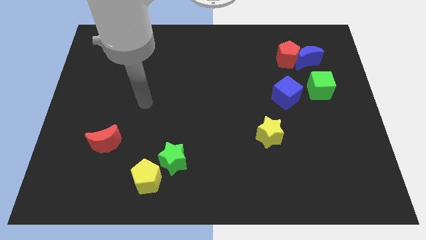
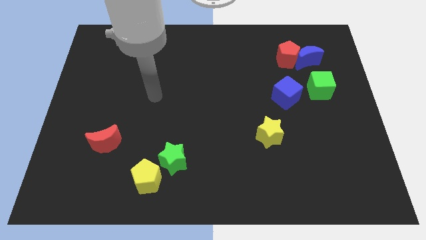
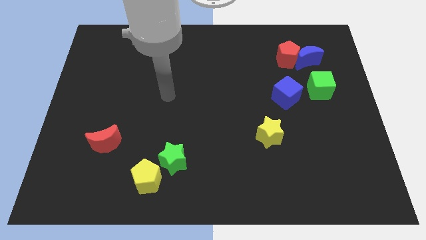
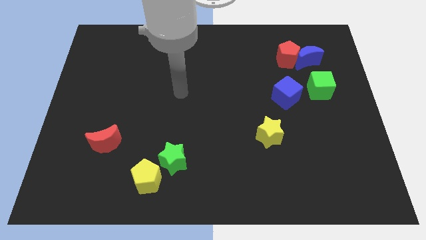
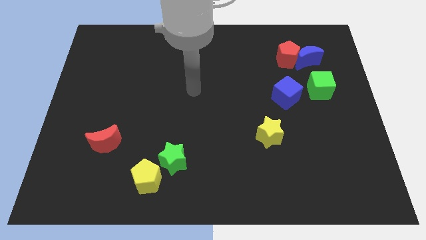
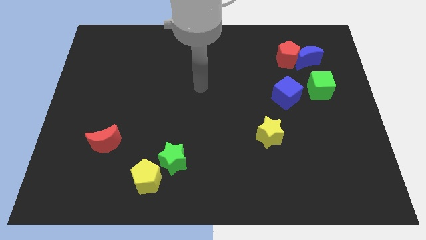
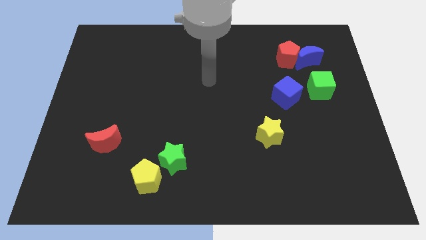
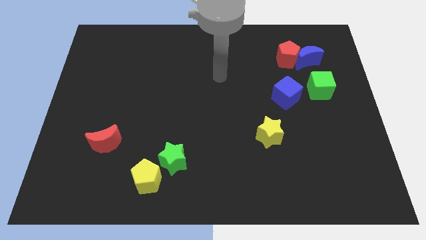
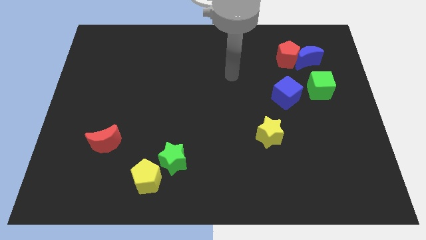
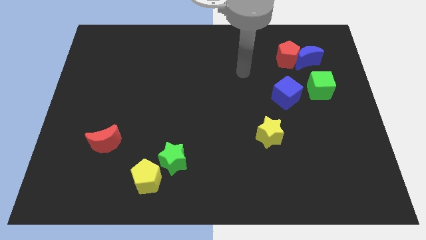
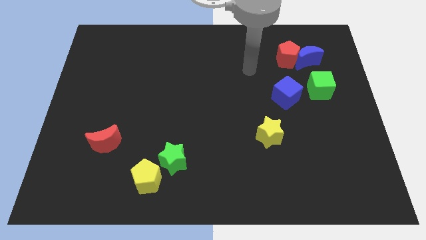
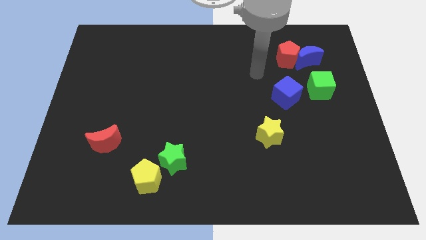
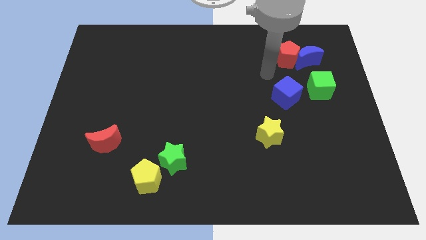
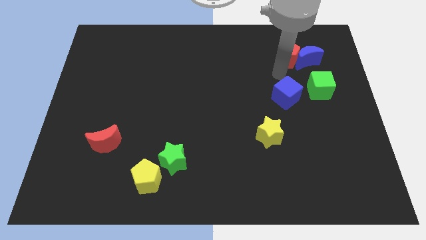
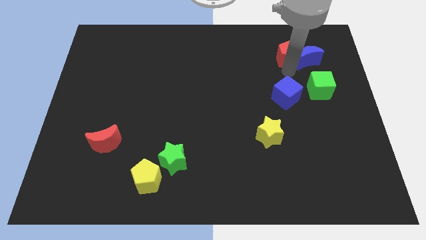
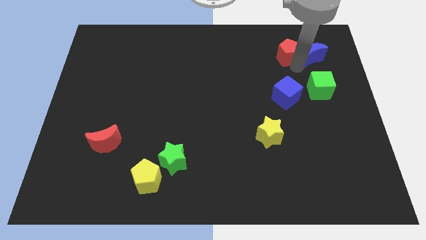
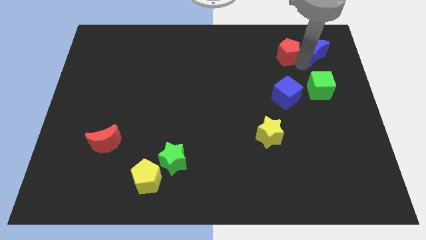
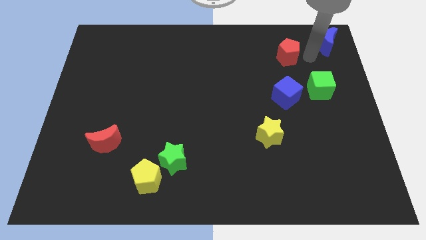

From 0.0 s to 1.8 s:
pull the red pentagon apart from the blue moon

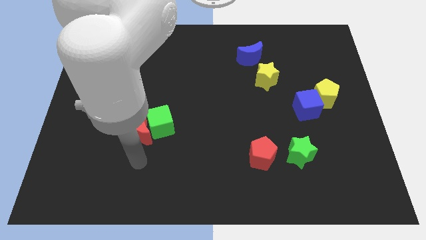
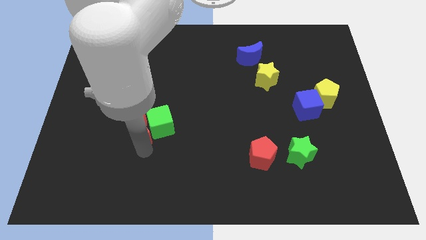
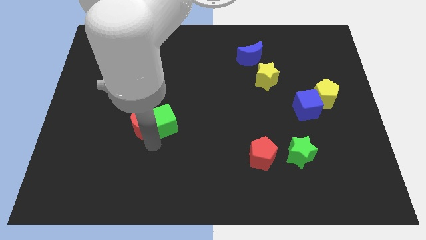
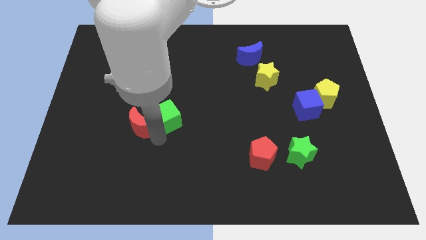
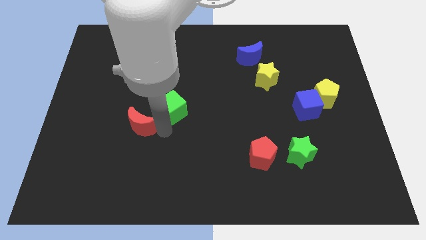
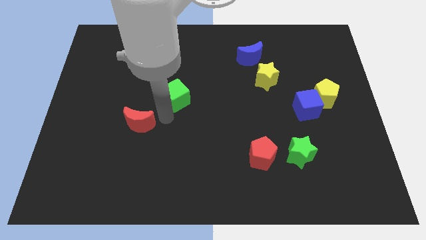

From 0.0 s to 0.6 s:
separate the red moon from the green cube

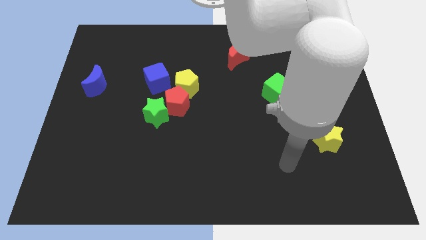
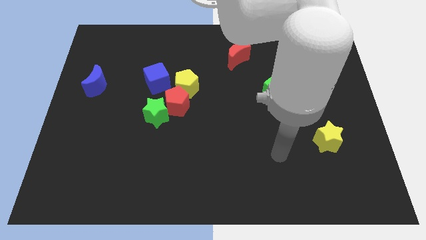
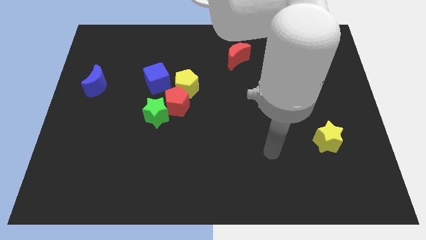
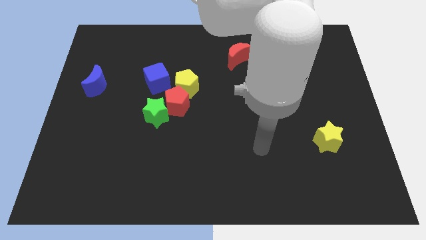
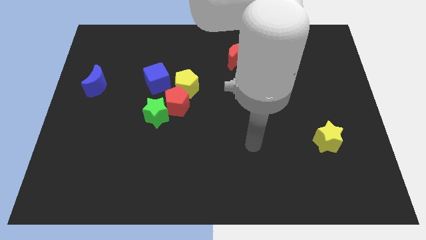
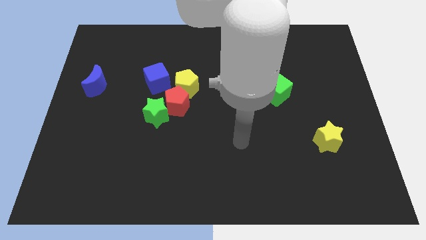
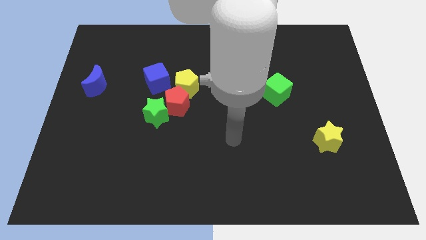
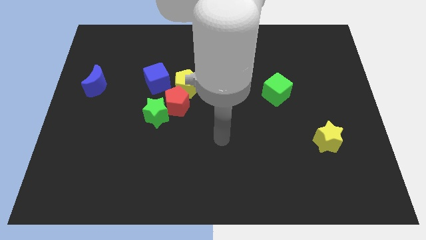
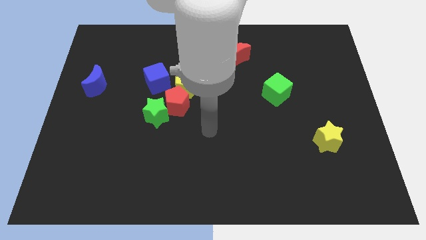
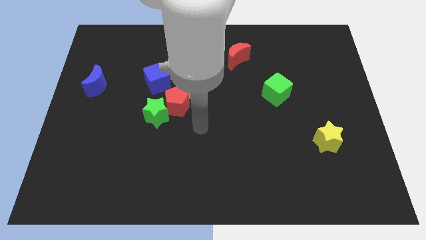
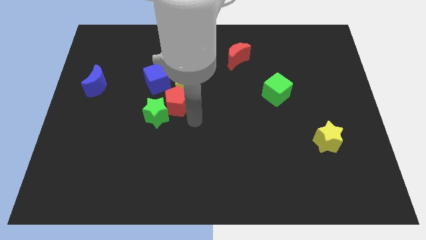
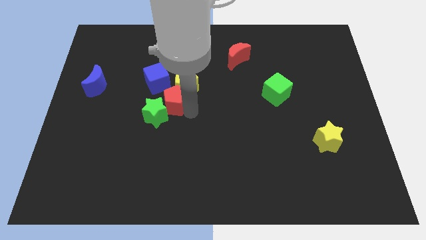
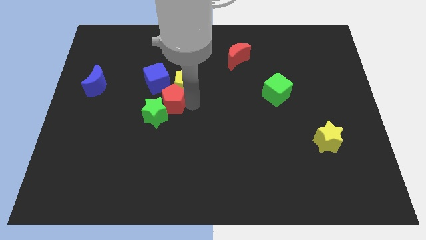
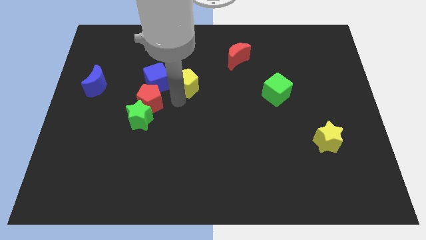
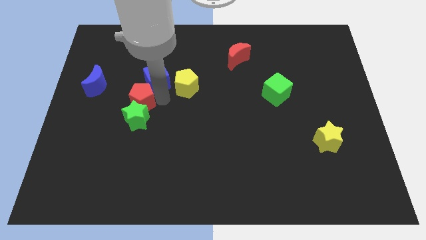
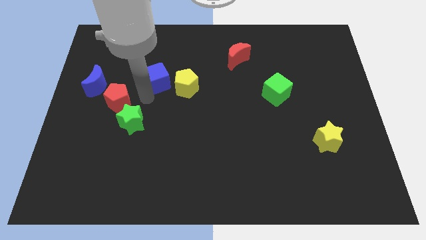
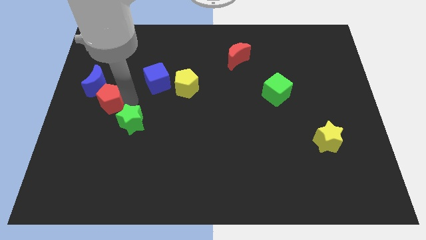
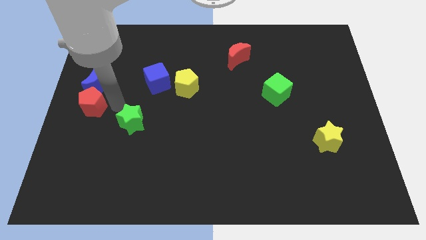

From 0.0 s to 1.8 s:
pull the green star apart from the red pentagon

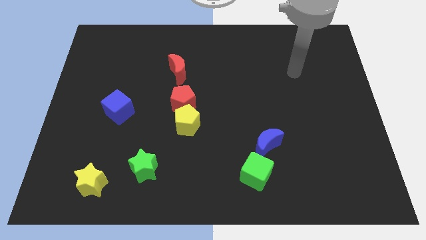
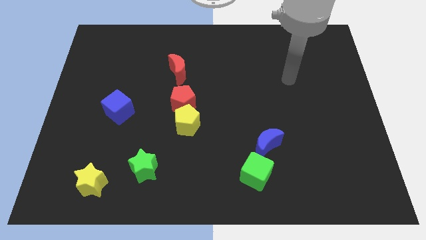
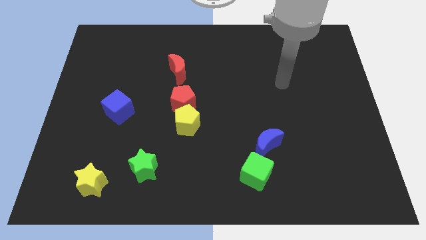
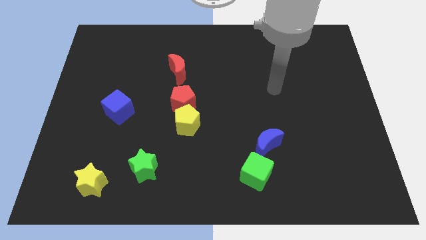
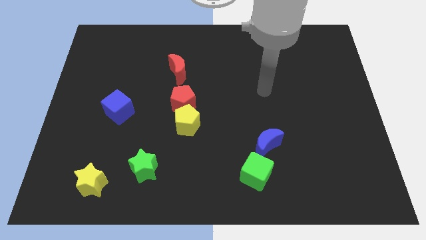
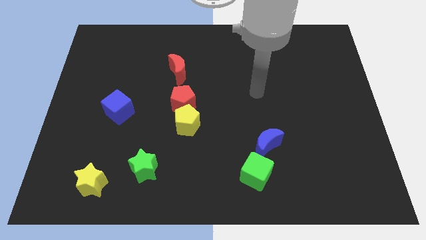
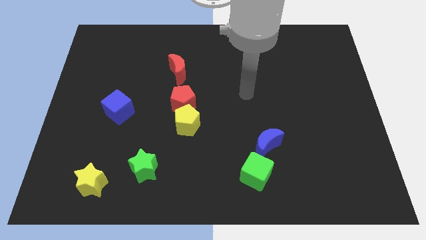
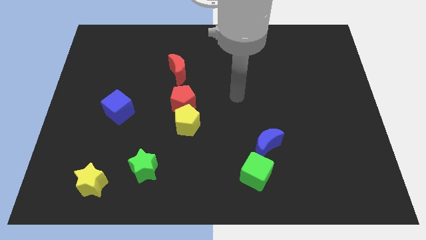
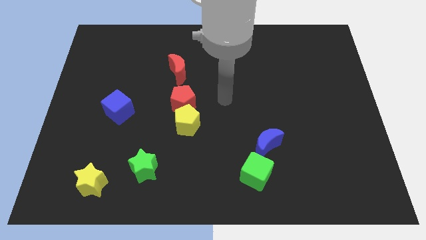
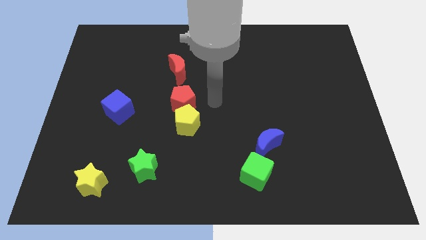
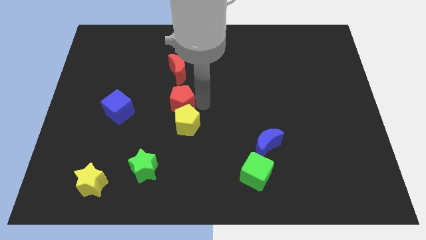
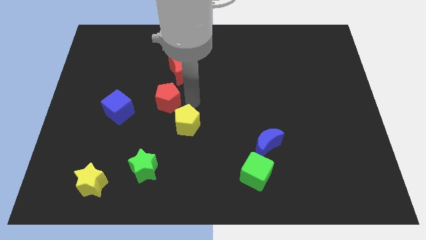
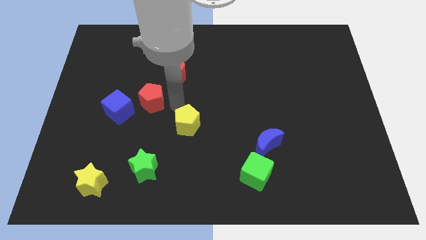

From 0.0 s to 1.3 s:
separate the yellow pentagon from the red pentagon

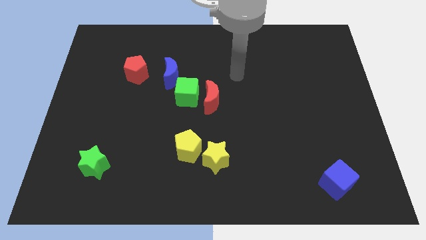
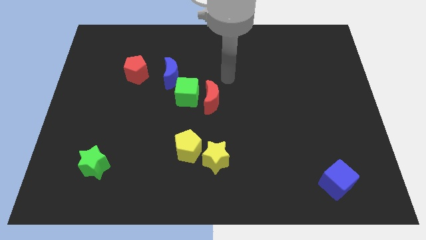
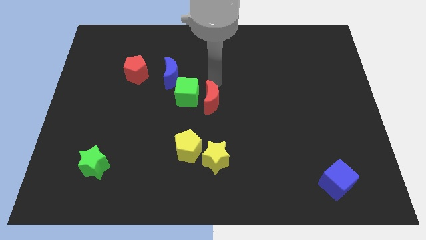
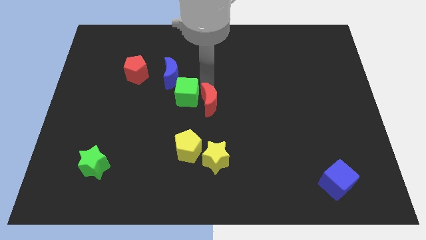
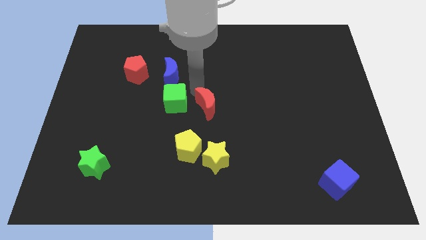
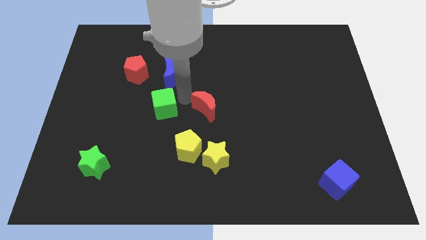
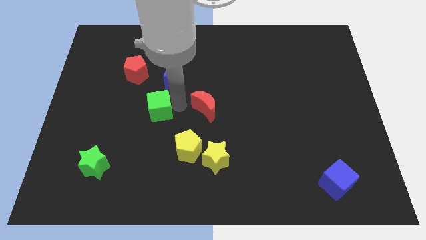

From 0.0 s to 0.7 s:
pull the red moon apart from the green cube

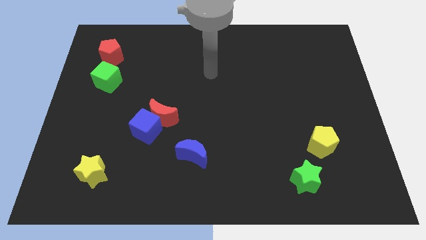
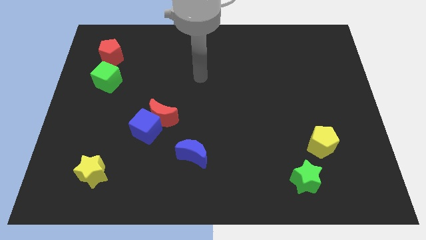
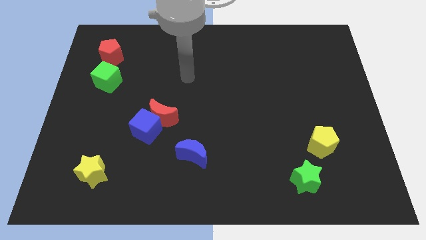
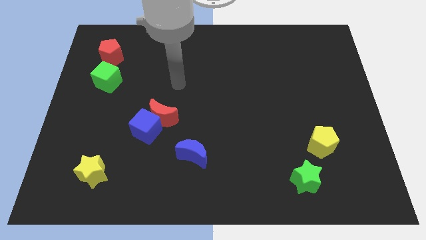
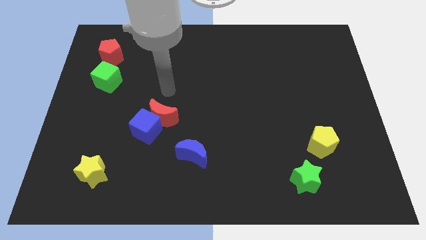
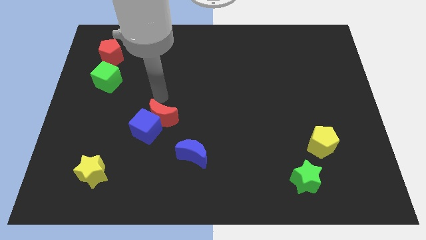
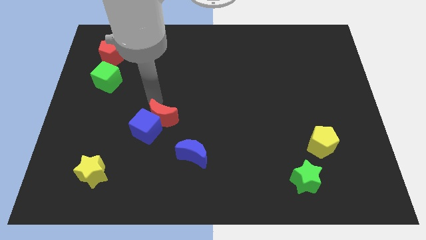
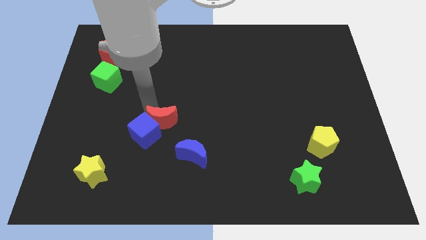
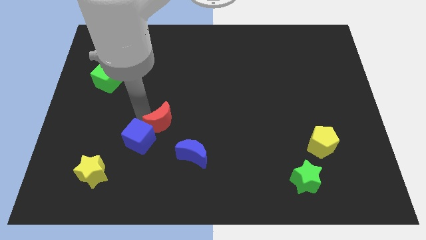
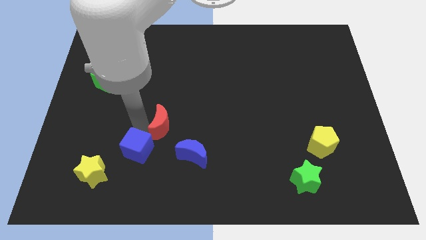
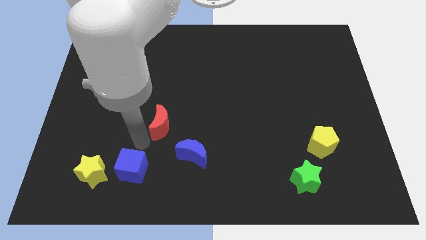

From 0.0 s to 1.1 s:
move the red moon away from the blue cube

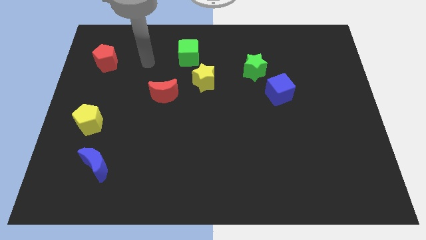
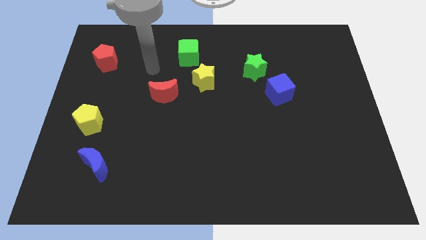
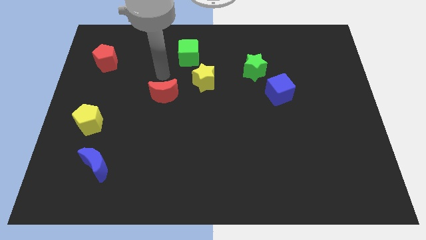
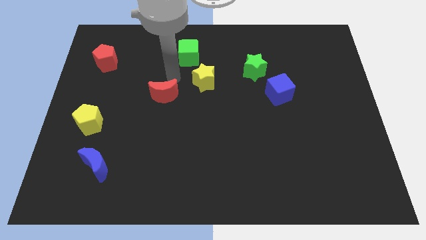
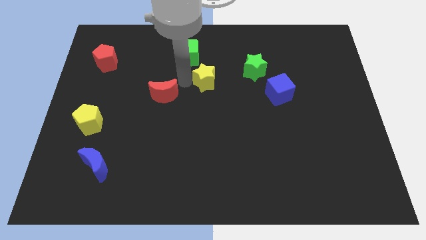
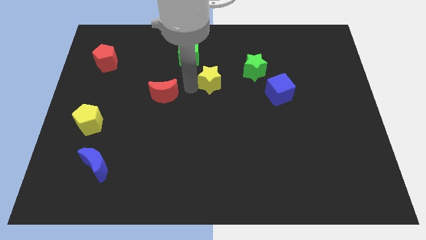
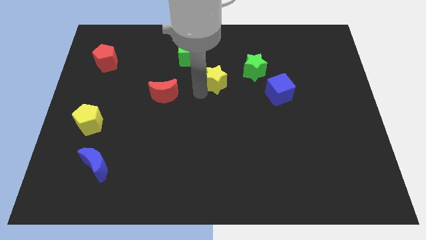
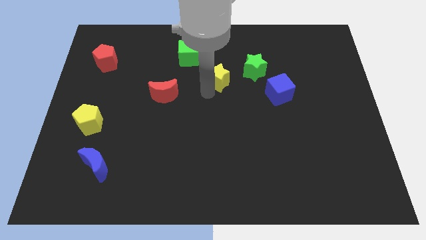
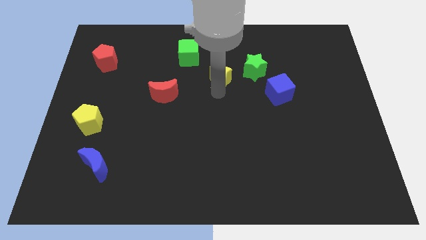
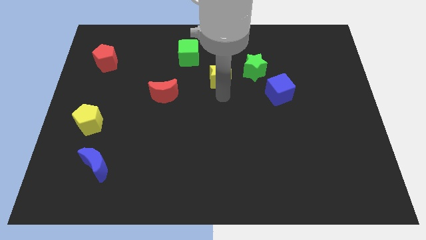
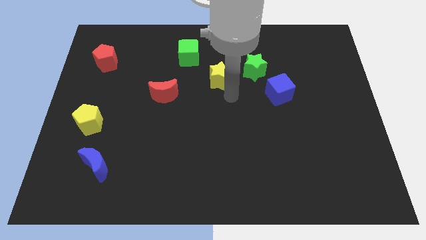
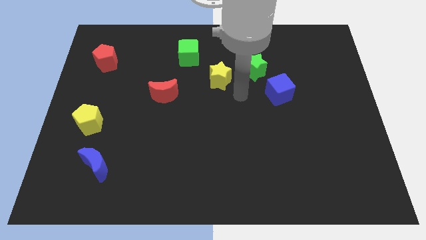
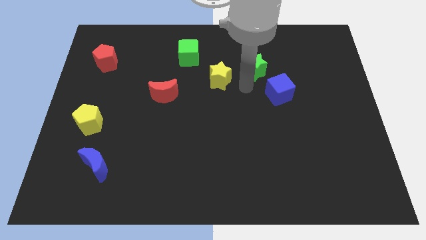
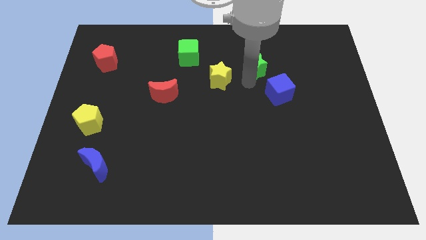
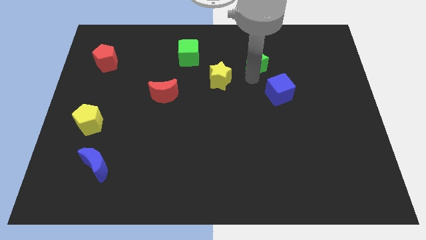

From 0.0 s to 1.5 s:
separate the blue cube from the green star

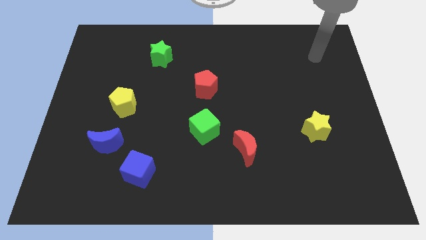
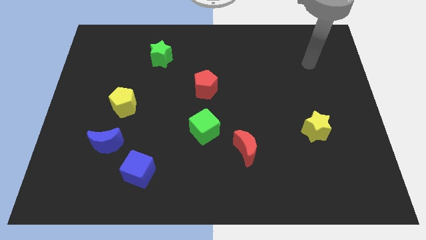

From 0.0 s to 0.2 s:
pull the blue moon apart from the blue cube

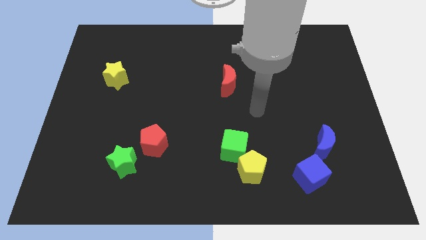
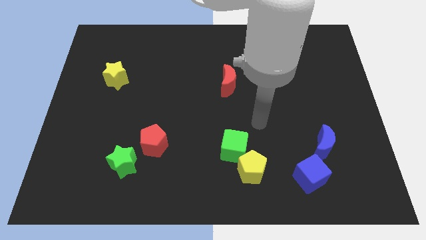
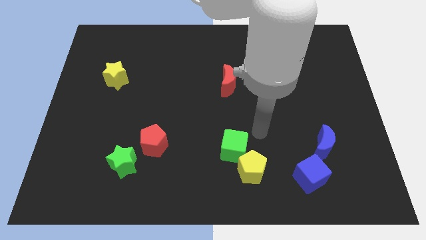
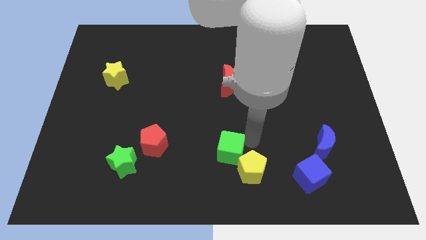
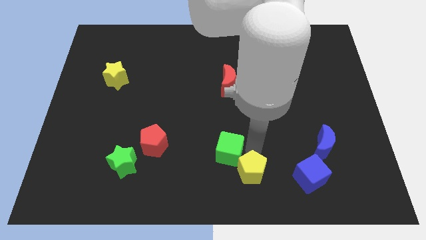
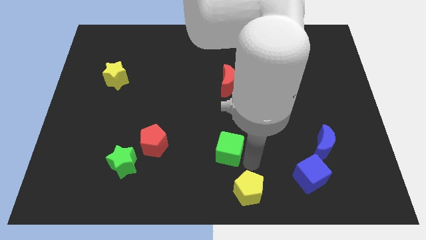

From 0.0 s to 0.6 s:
pull the green cube apart from the yellow pentagon
